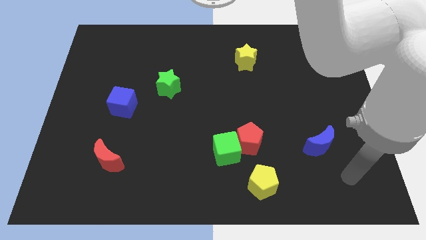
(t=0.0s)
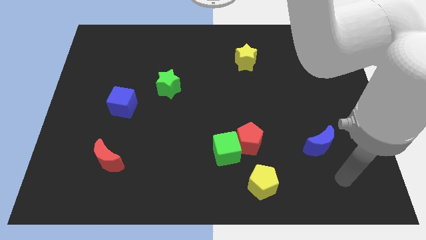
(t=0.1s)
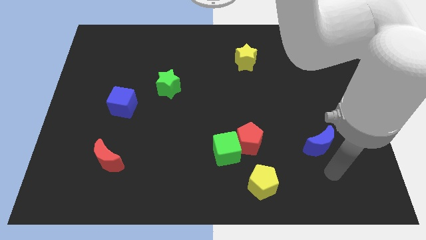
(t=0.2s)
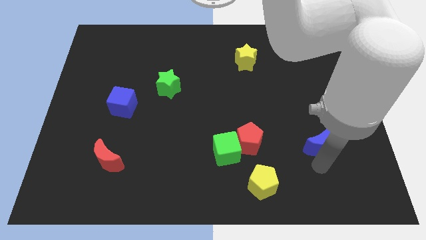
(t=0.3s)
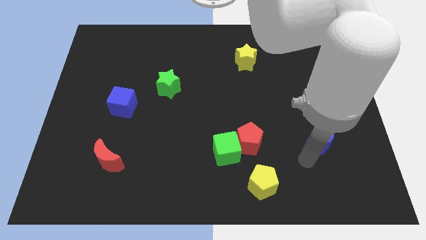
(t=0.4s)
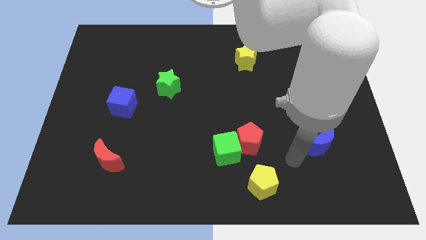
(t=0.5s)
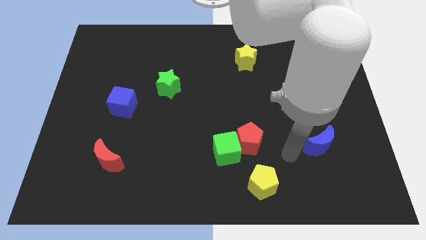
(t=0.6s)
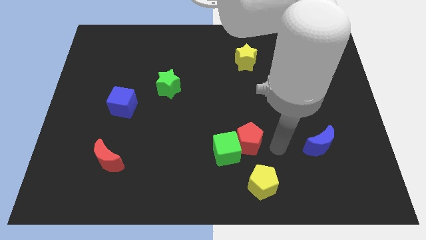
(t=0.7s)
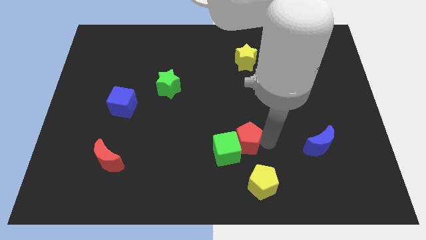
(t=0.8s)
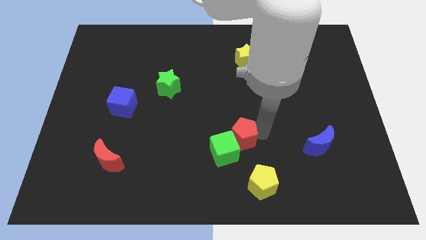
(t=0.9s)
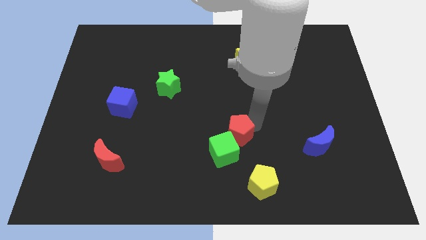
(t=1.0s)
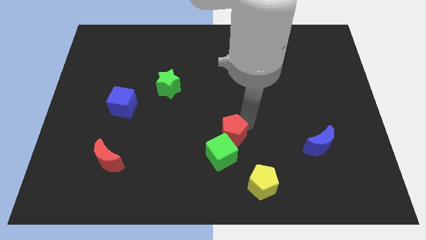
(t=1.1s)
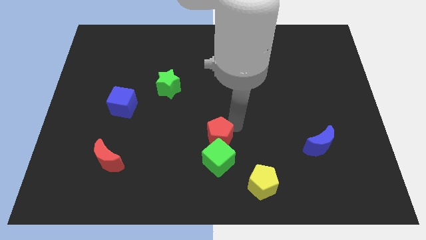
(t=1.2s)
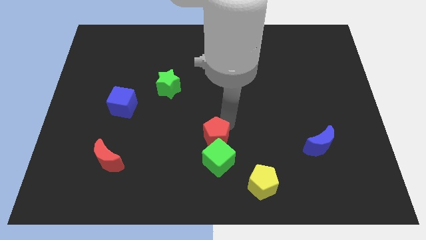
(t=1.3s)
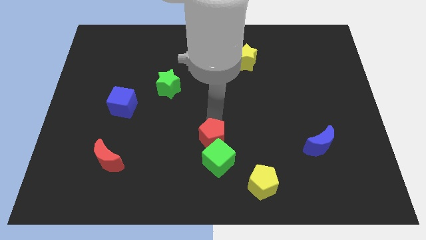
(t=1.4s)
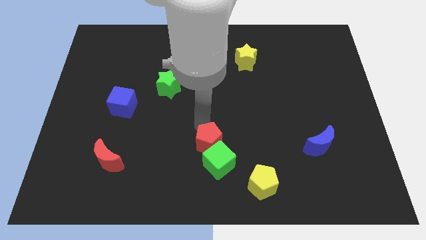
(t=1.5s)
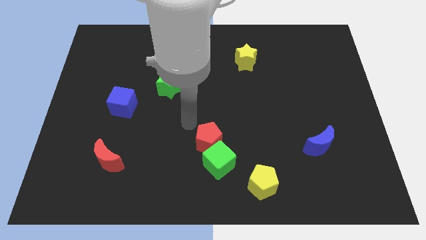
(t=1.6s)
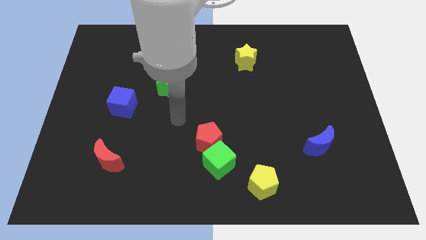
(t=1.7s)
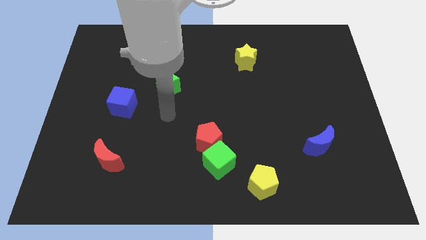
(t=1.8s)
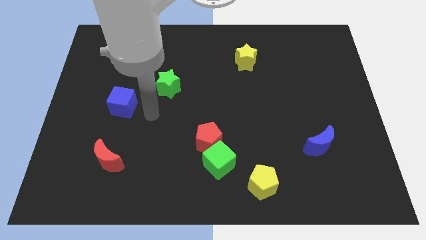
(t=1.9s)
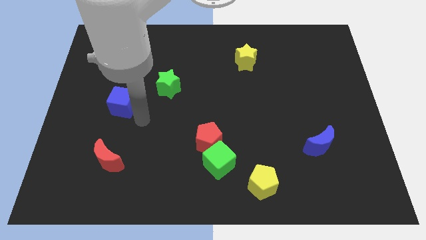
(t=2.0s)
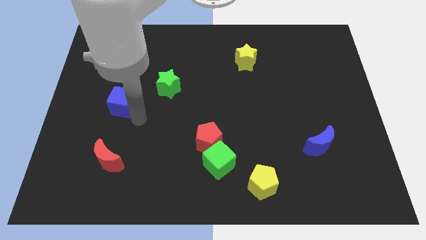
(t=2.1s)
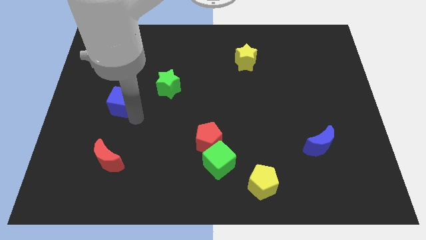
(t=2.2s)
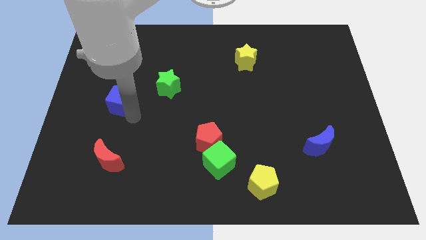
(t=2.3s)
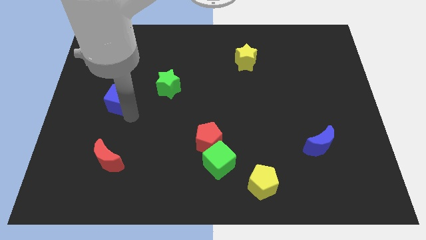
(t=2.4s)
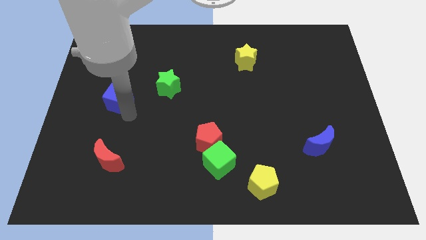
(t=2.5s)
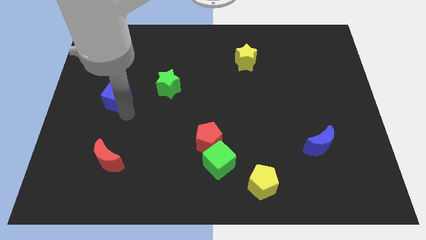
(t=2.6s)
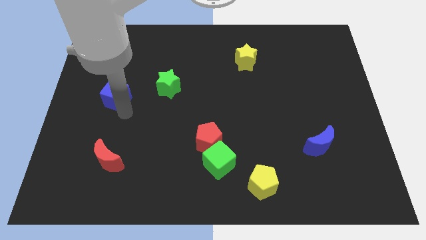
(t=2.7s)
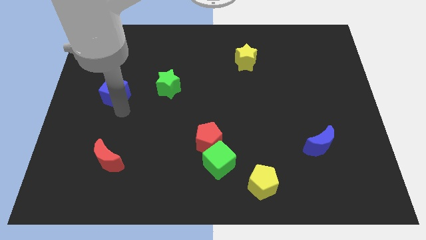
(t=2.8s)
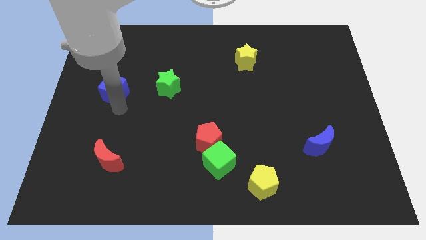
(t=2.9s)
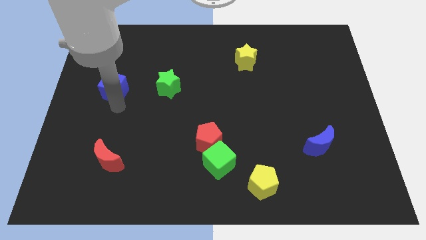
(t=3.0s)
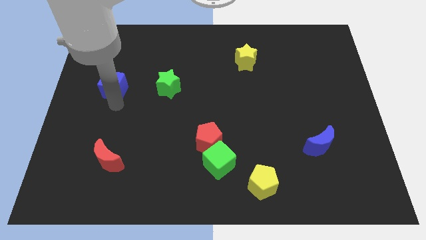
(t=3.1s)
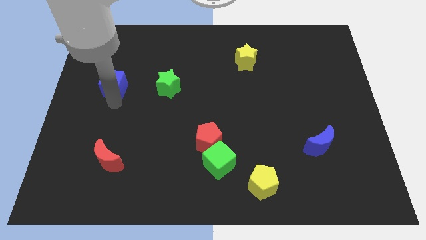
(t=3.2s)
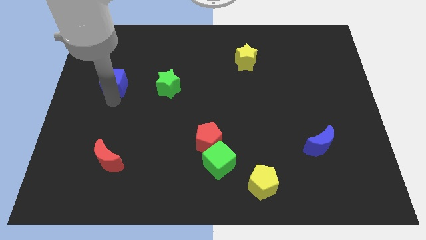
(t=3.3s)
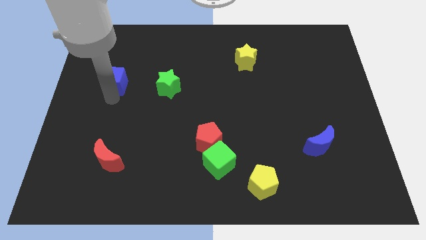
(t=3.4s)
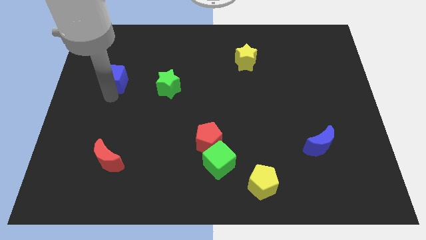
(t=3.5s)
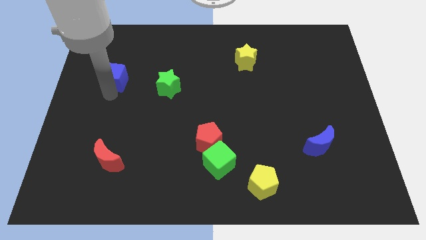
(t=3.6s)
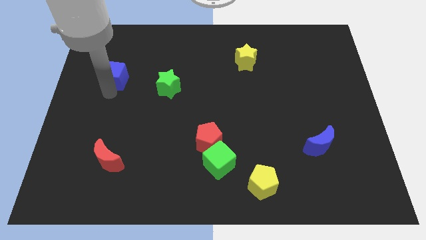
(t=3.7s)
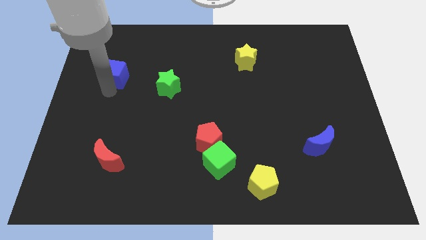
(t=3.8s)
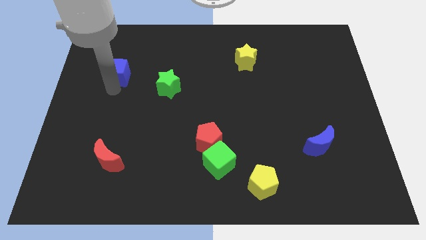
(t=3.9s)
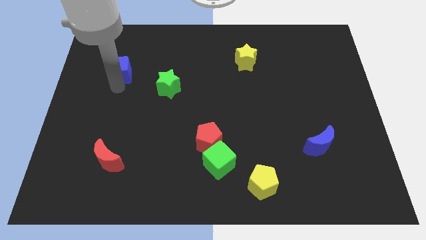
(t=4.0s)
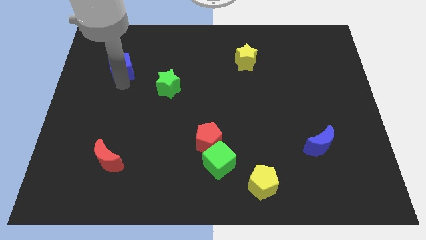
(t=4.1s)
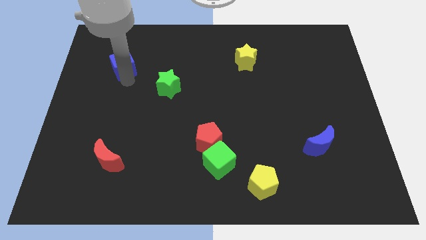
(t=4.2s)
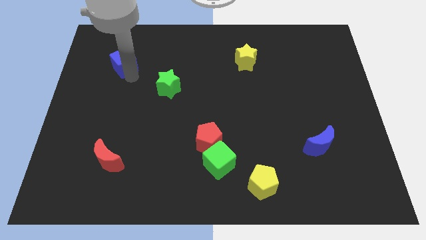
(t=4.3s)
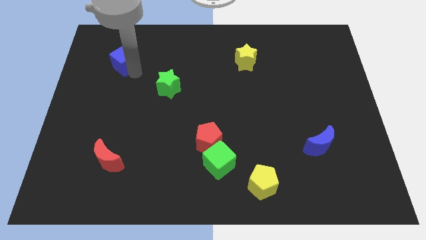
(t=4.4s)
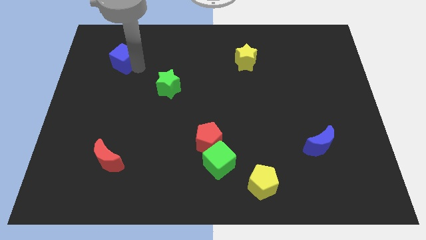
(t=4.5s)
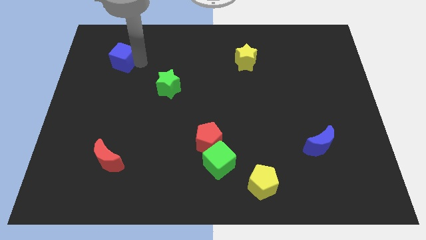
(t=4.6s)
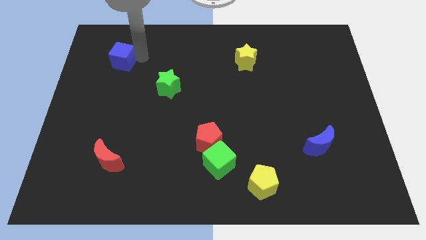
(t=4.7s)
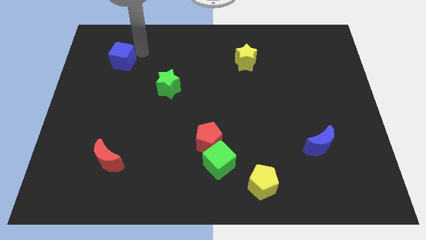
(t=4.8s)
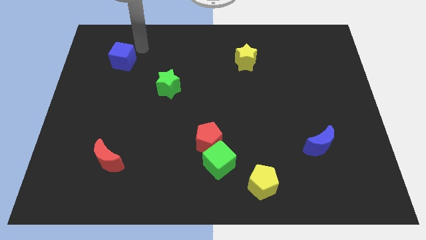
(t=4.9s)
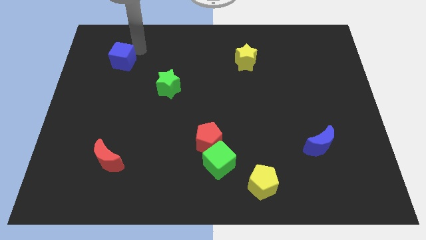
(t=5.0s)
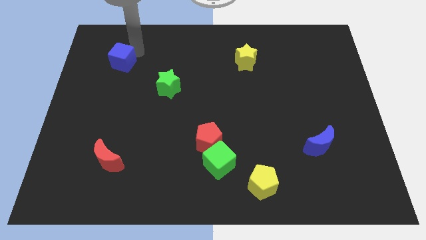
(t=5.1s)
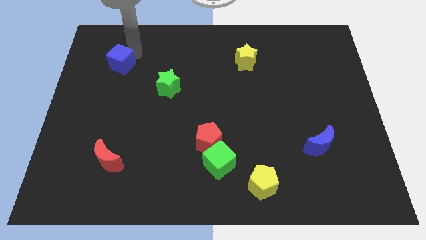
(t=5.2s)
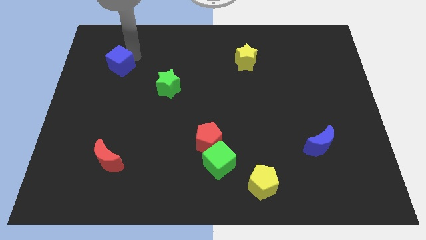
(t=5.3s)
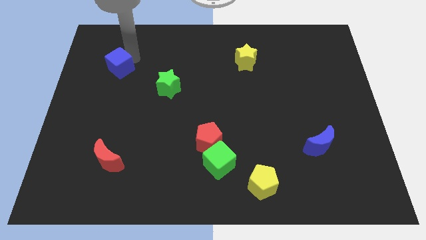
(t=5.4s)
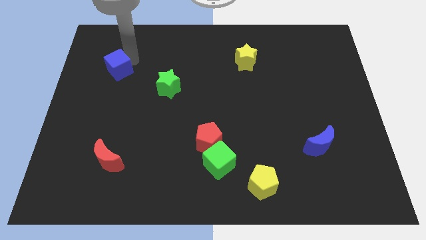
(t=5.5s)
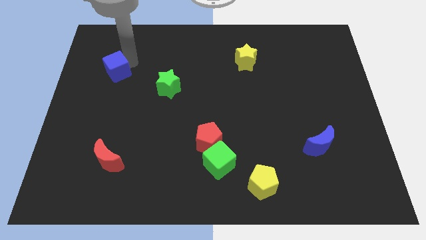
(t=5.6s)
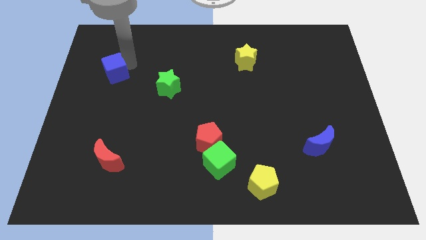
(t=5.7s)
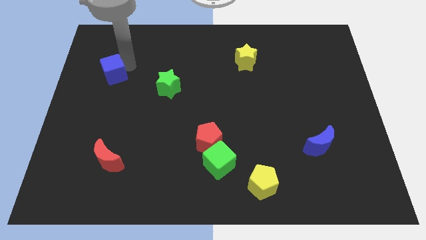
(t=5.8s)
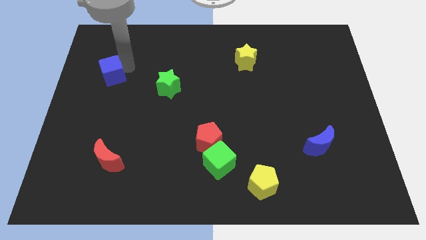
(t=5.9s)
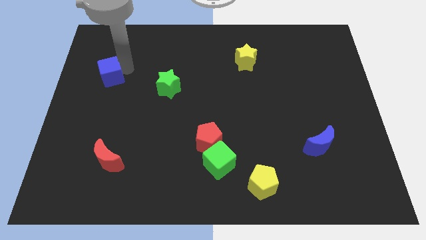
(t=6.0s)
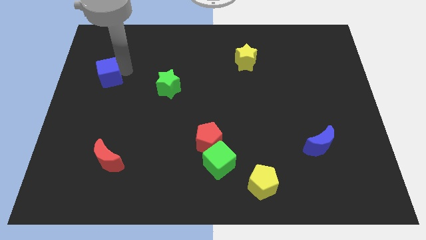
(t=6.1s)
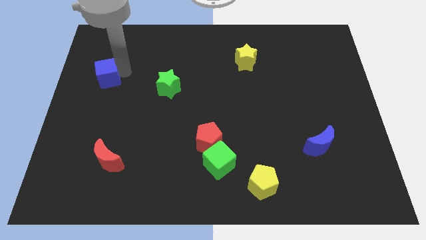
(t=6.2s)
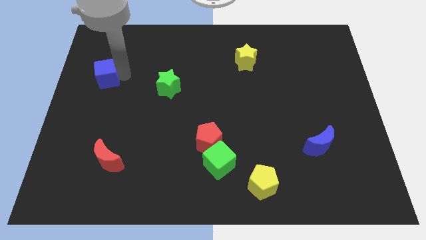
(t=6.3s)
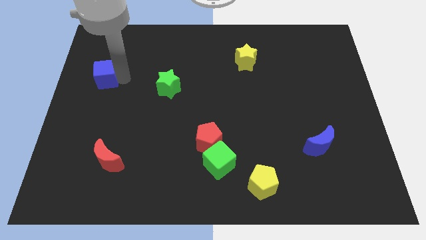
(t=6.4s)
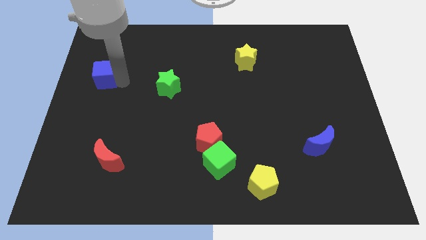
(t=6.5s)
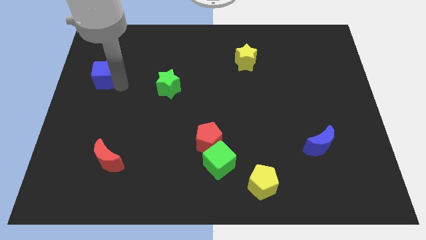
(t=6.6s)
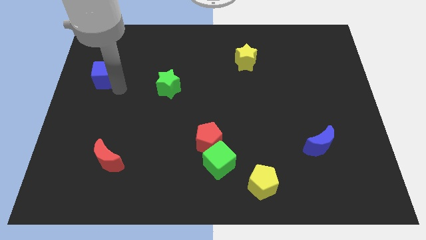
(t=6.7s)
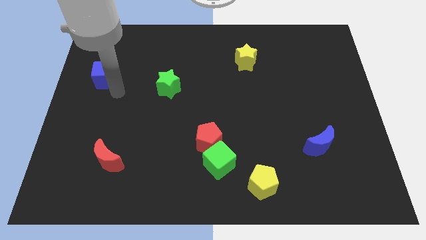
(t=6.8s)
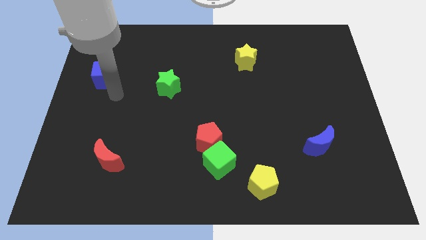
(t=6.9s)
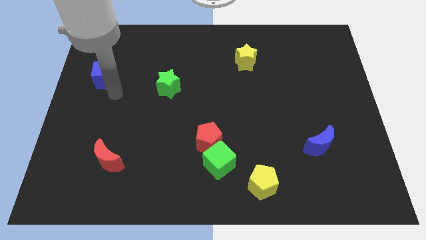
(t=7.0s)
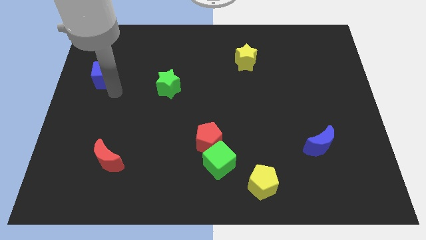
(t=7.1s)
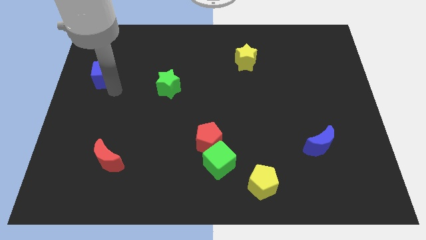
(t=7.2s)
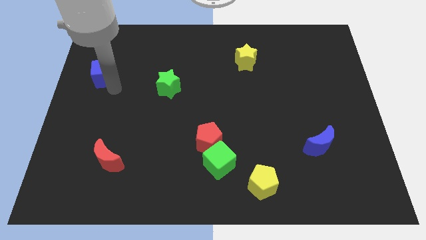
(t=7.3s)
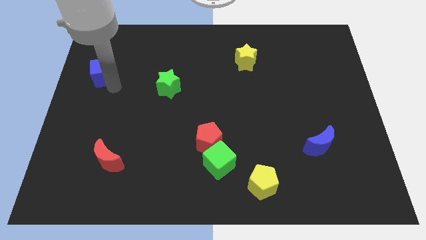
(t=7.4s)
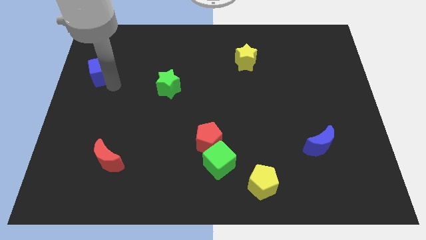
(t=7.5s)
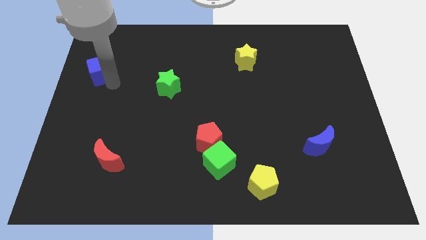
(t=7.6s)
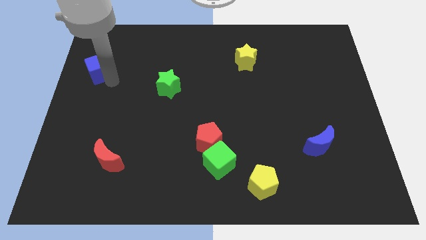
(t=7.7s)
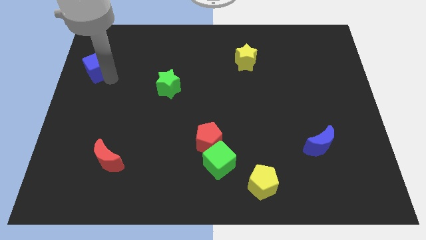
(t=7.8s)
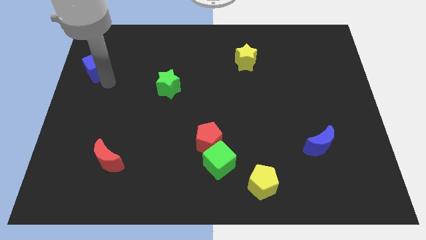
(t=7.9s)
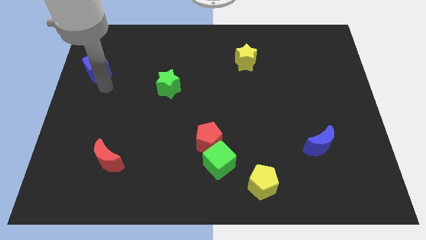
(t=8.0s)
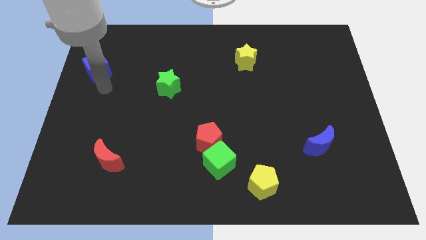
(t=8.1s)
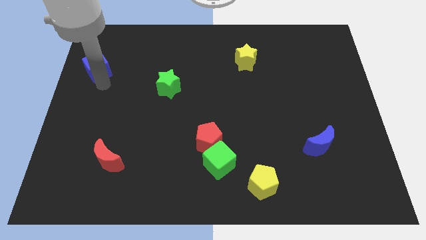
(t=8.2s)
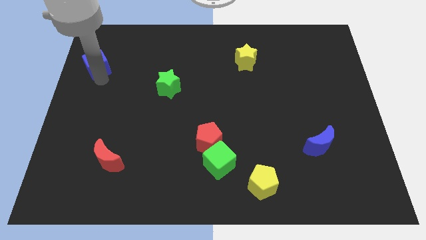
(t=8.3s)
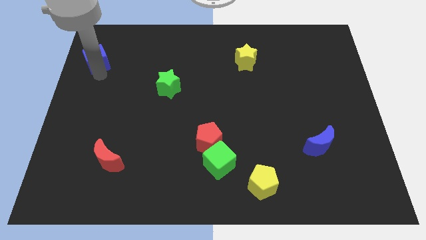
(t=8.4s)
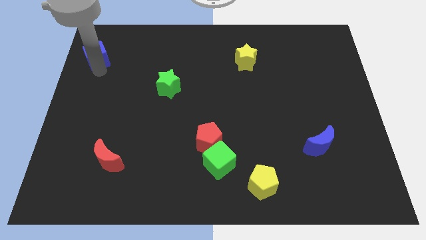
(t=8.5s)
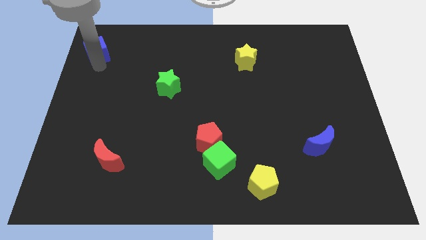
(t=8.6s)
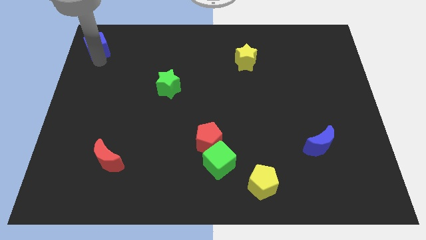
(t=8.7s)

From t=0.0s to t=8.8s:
slide the blue cube to the top left of the board
